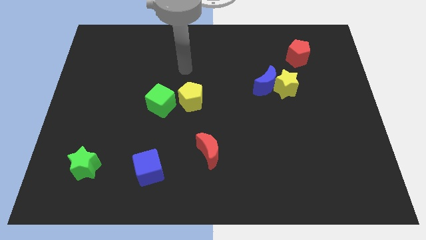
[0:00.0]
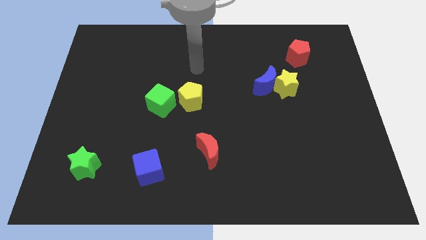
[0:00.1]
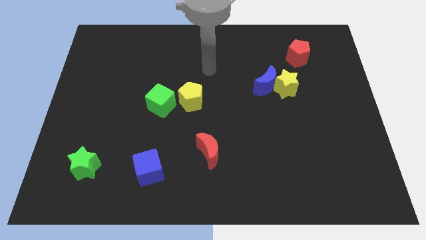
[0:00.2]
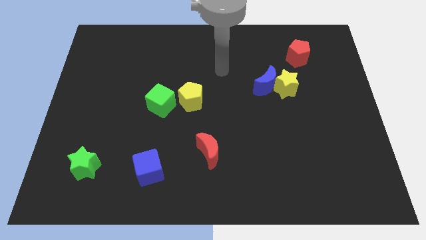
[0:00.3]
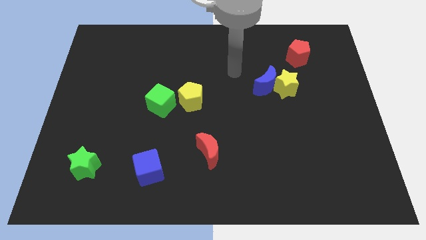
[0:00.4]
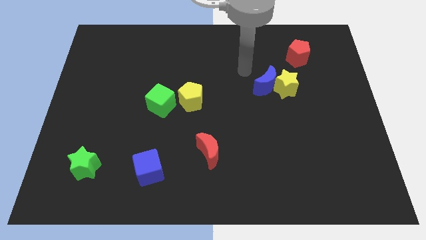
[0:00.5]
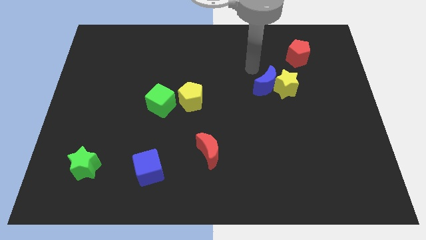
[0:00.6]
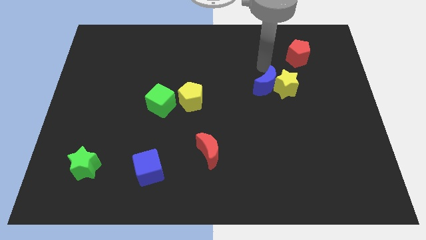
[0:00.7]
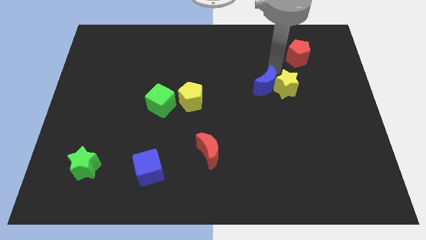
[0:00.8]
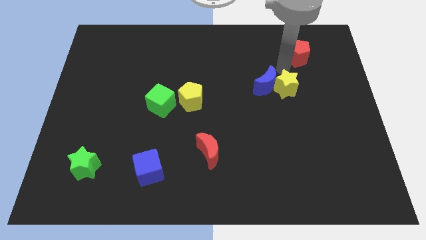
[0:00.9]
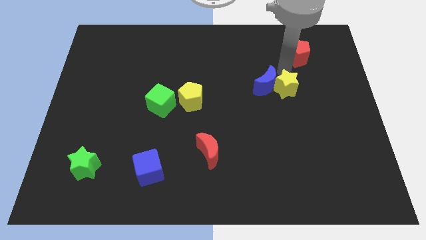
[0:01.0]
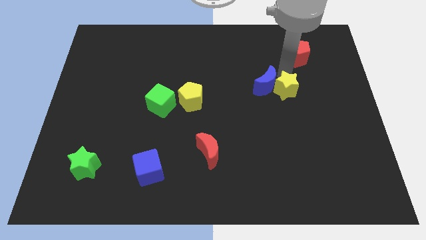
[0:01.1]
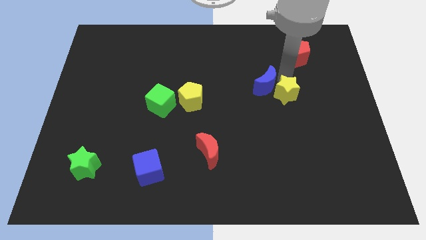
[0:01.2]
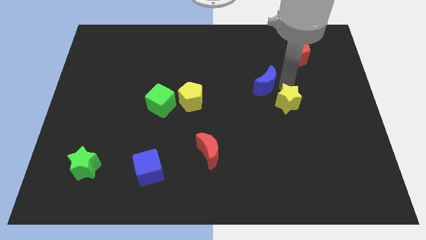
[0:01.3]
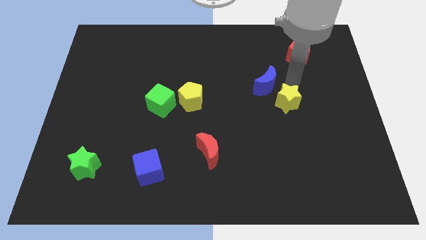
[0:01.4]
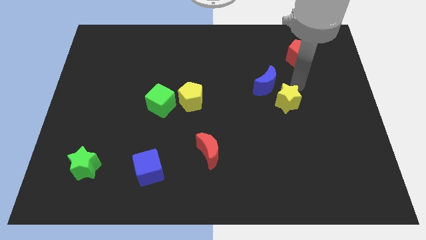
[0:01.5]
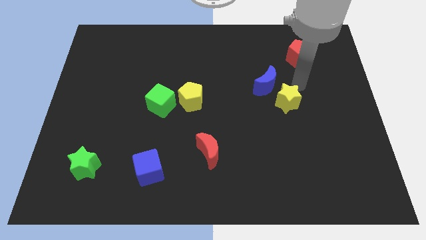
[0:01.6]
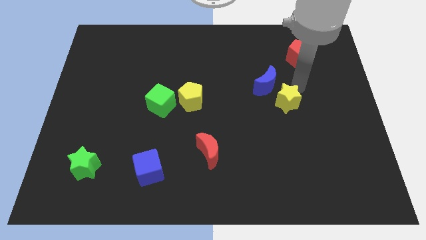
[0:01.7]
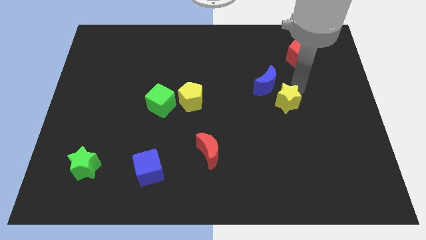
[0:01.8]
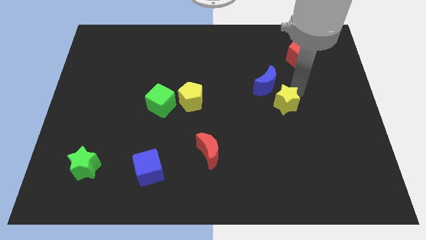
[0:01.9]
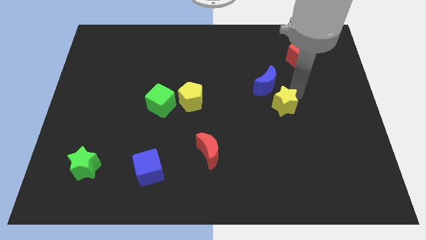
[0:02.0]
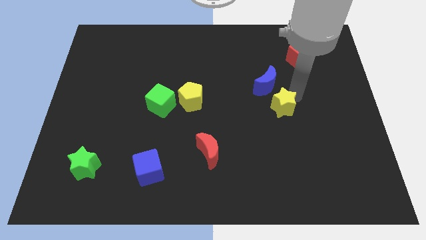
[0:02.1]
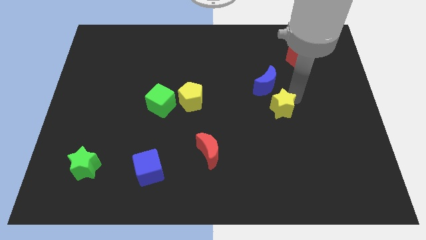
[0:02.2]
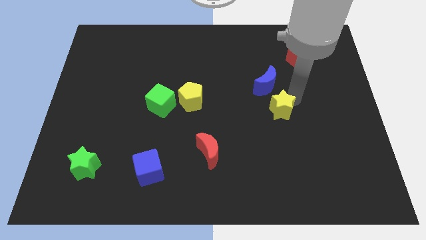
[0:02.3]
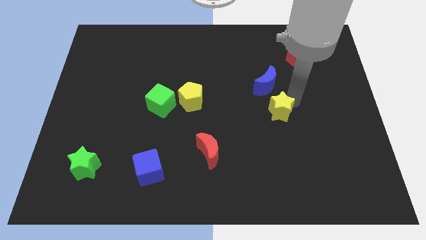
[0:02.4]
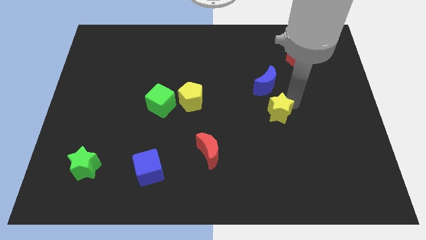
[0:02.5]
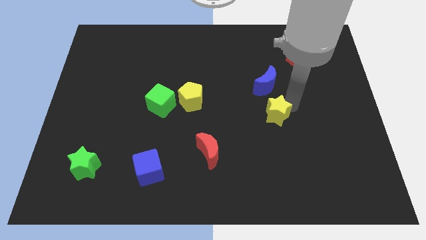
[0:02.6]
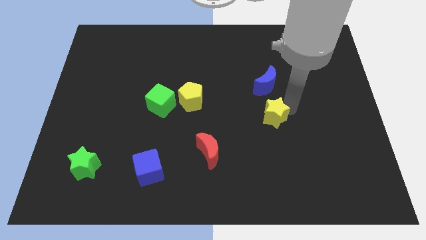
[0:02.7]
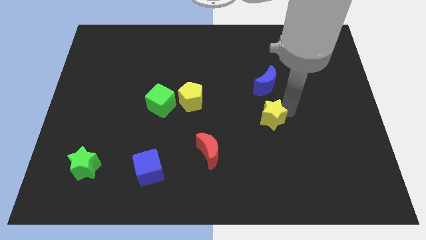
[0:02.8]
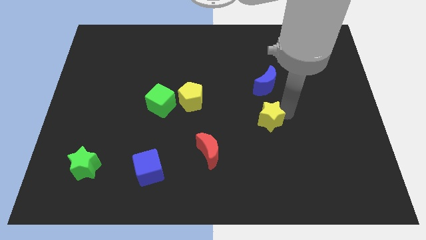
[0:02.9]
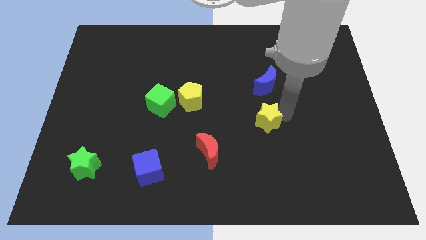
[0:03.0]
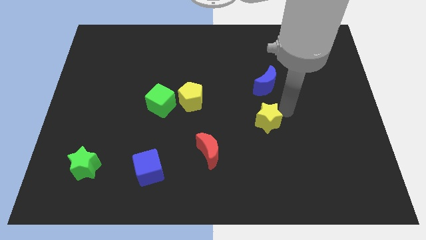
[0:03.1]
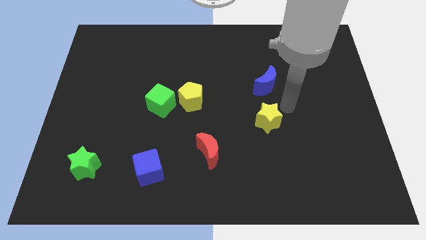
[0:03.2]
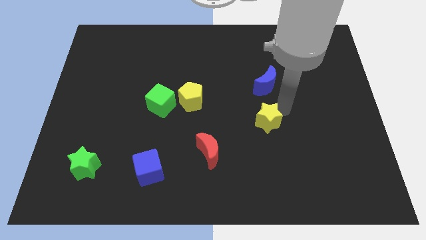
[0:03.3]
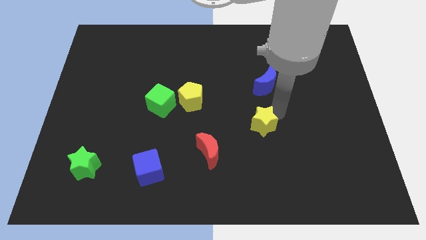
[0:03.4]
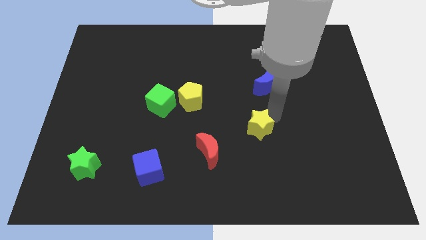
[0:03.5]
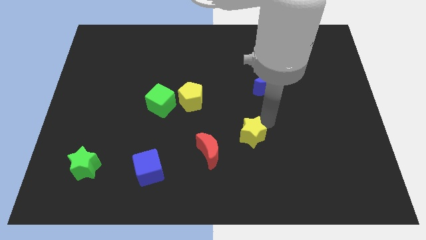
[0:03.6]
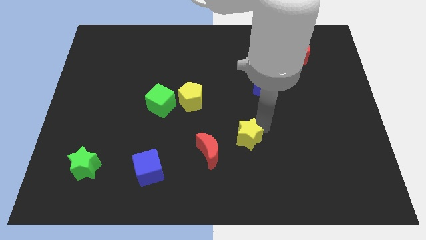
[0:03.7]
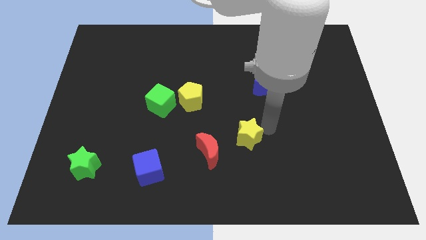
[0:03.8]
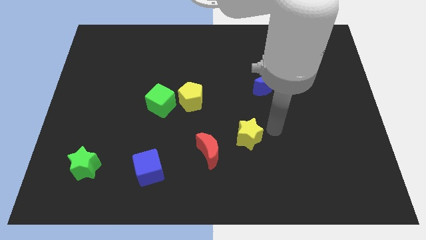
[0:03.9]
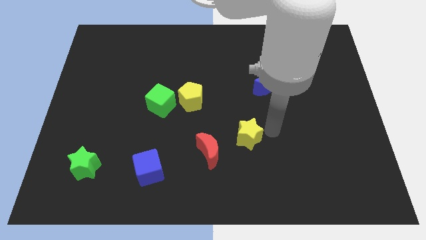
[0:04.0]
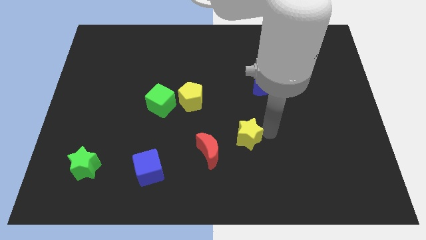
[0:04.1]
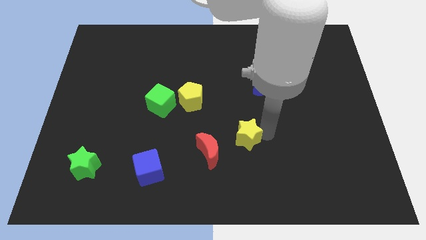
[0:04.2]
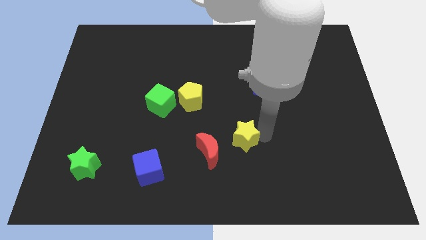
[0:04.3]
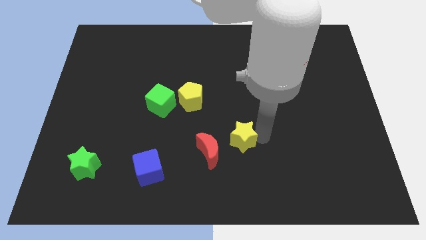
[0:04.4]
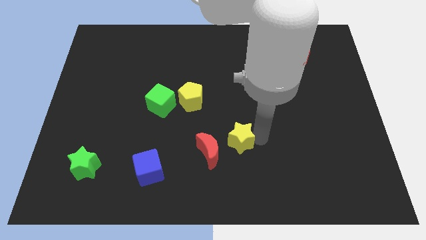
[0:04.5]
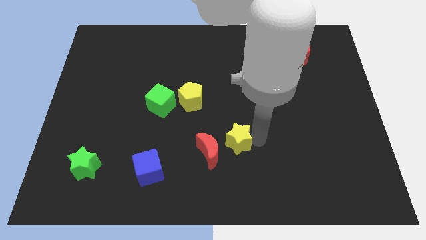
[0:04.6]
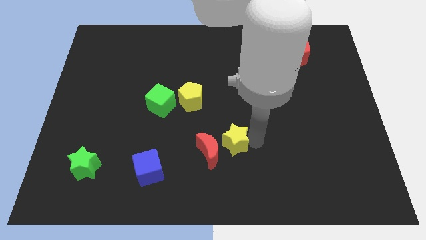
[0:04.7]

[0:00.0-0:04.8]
move the yellow star next to the red moon

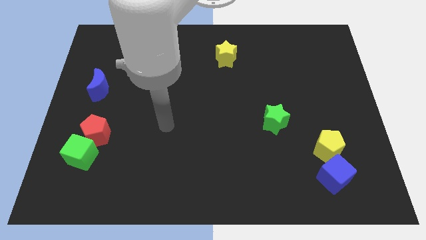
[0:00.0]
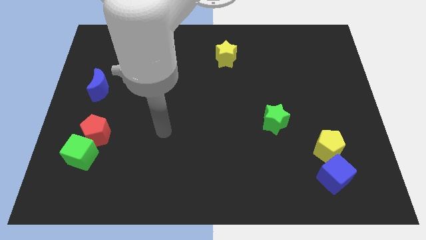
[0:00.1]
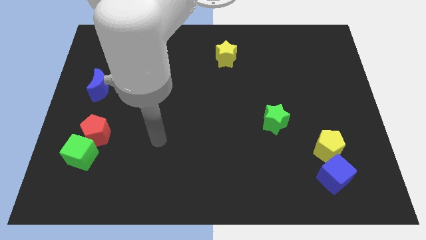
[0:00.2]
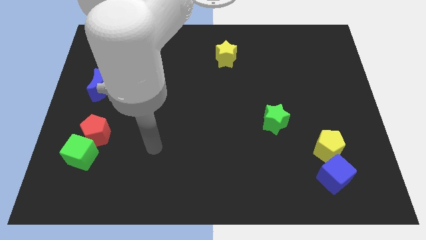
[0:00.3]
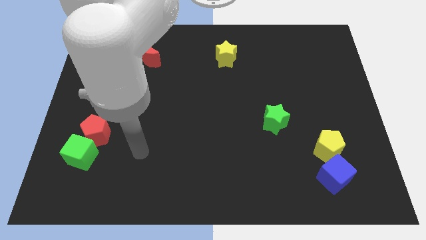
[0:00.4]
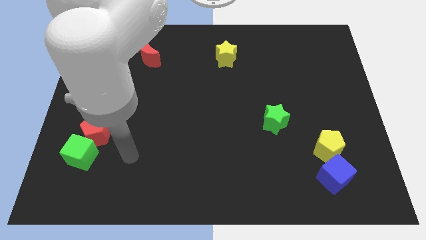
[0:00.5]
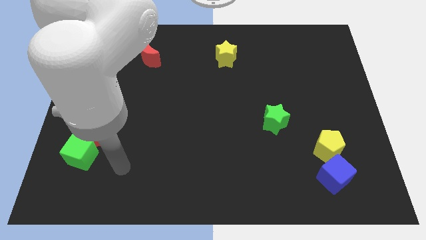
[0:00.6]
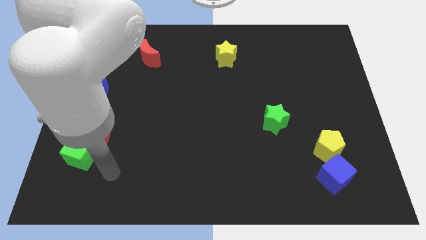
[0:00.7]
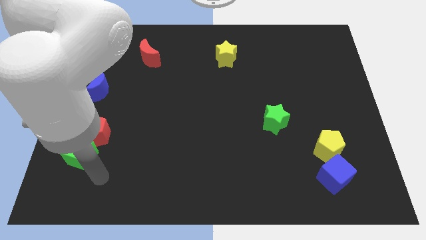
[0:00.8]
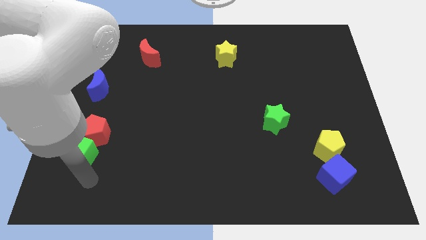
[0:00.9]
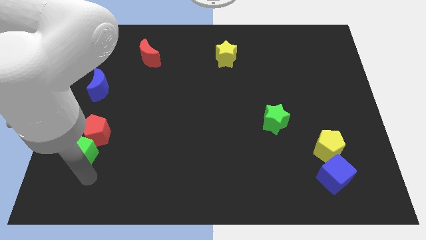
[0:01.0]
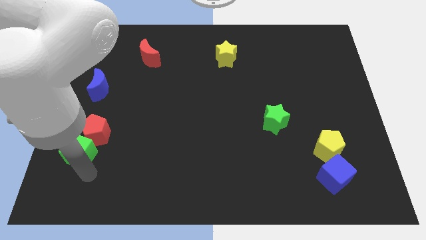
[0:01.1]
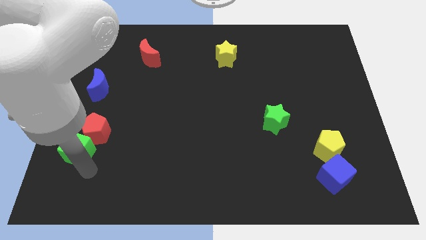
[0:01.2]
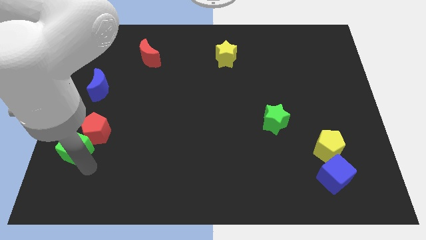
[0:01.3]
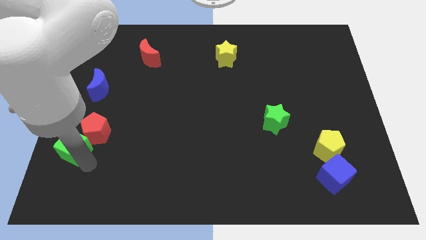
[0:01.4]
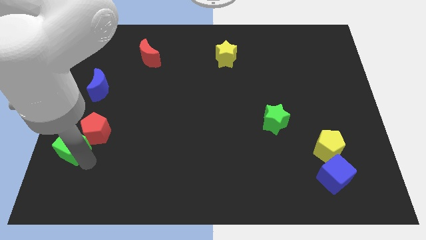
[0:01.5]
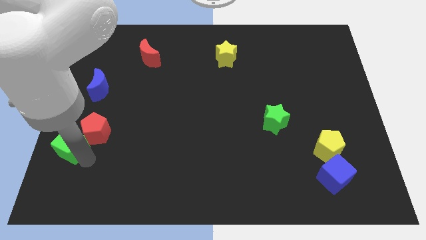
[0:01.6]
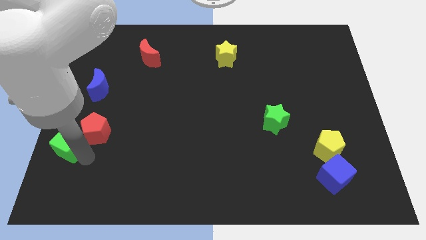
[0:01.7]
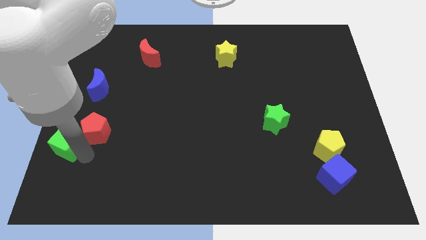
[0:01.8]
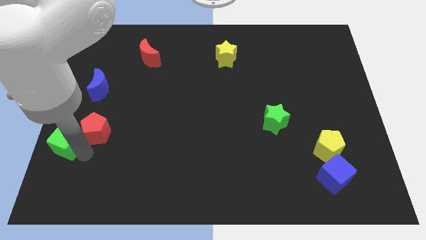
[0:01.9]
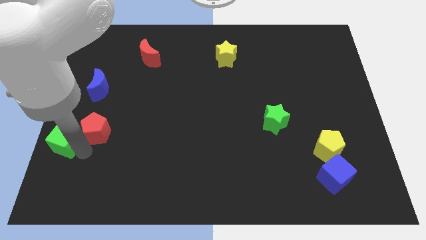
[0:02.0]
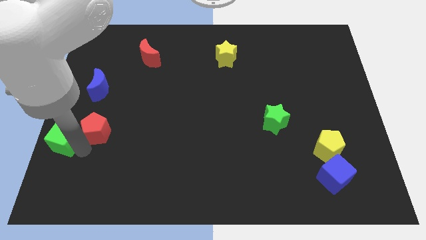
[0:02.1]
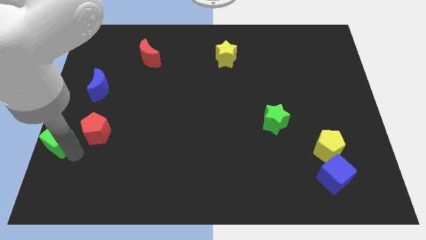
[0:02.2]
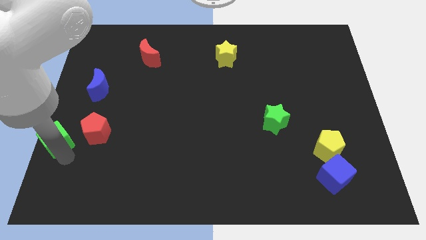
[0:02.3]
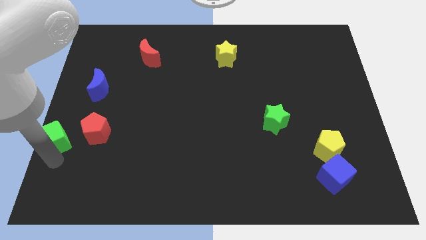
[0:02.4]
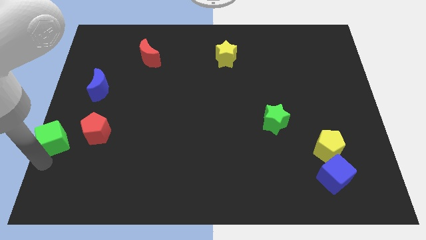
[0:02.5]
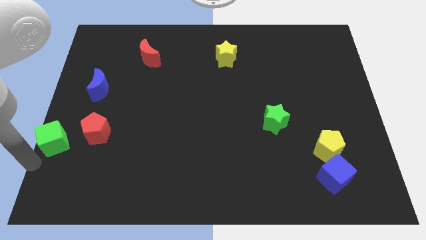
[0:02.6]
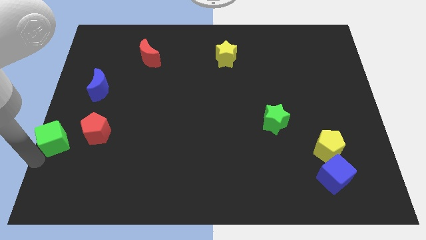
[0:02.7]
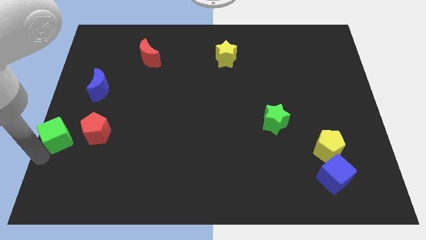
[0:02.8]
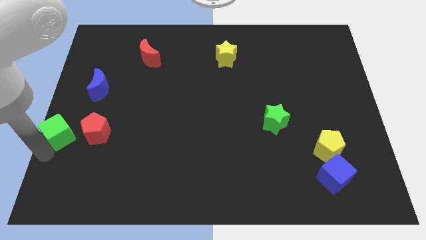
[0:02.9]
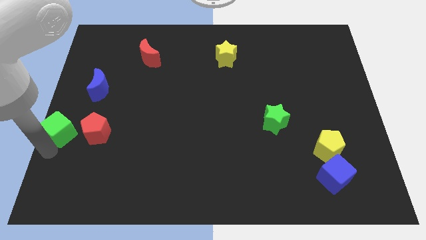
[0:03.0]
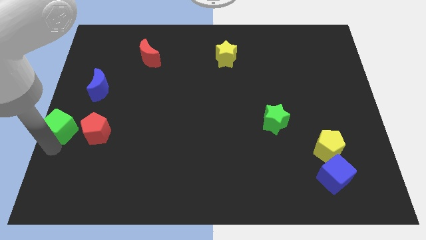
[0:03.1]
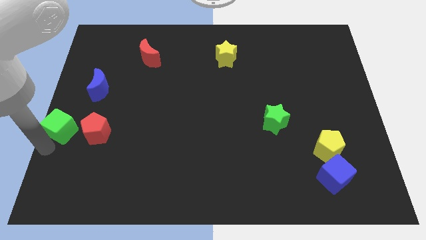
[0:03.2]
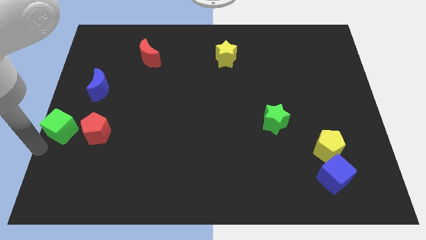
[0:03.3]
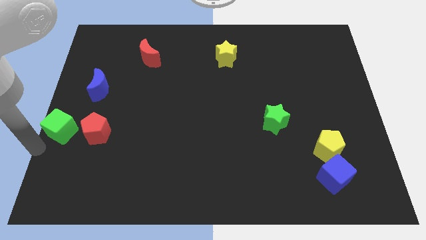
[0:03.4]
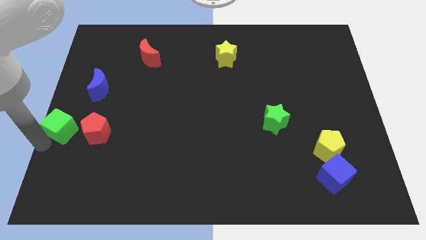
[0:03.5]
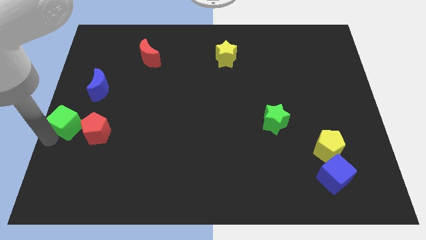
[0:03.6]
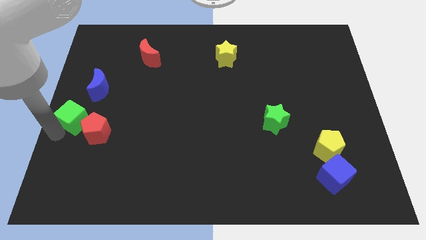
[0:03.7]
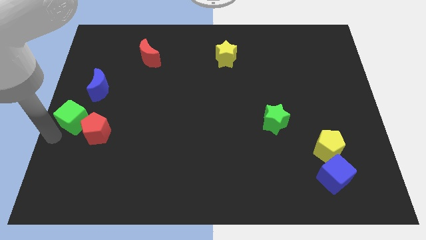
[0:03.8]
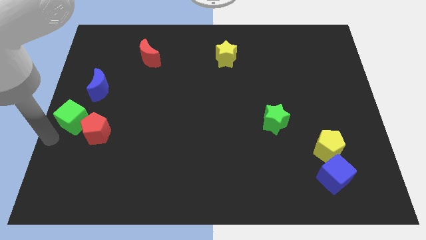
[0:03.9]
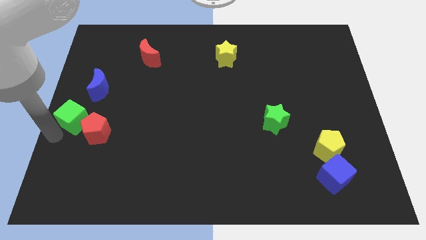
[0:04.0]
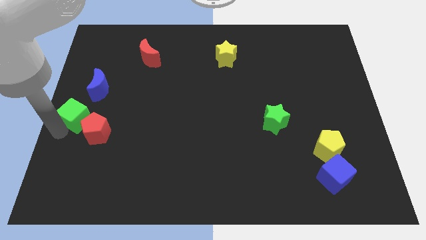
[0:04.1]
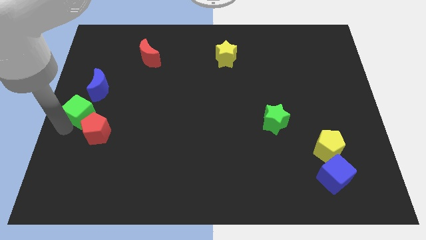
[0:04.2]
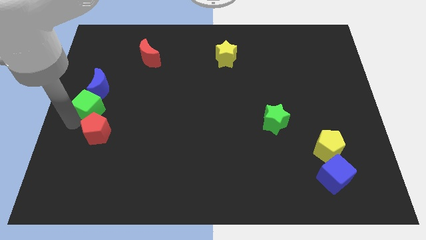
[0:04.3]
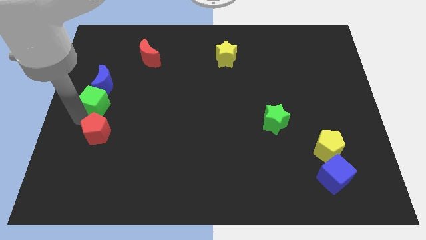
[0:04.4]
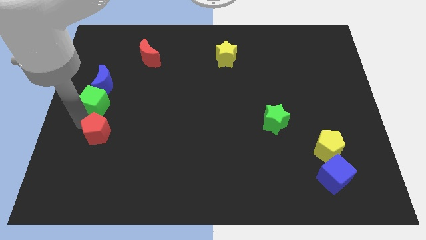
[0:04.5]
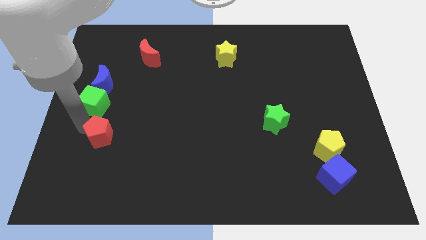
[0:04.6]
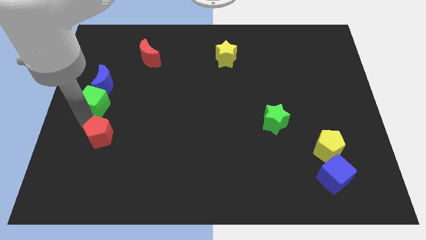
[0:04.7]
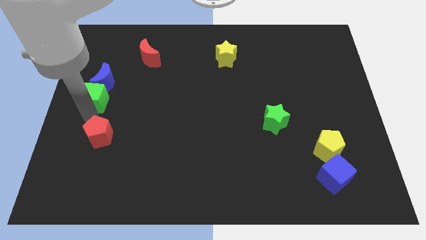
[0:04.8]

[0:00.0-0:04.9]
put the green cube next to the blue moon
